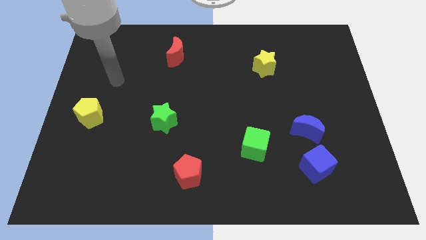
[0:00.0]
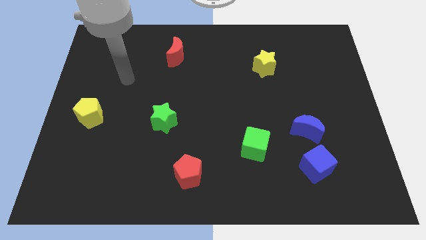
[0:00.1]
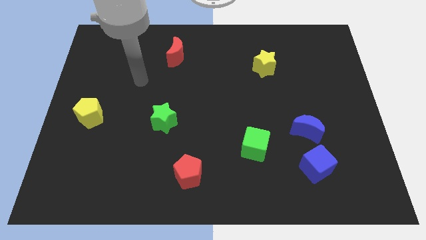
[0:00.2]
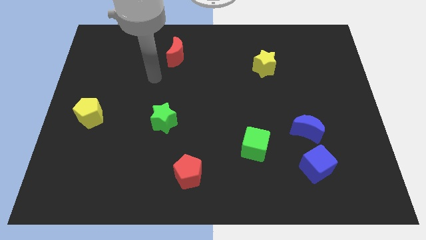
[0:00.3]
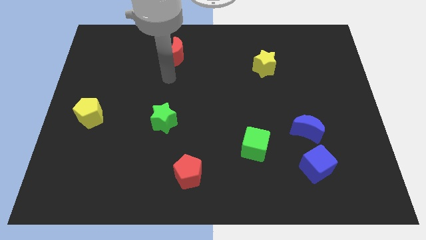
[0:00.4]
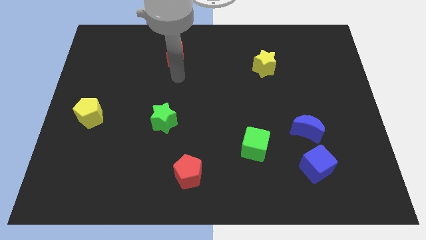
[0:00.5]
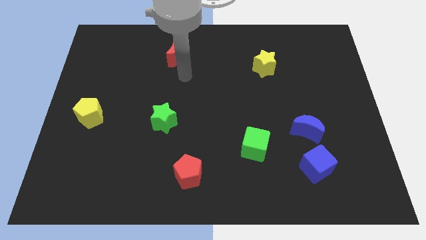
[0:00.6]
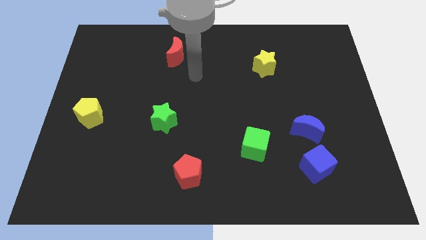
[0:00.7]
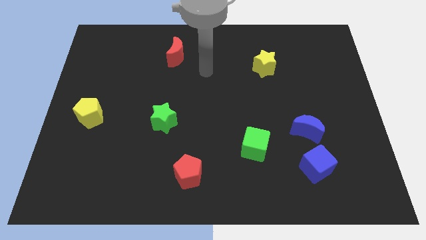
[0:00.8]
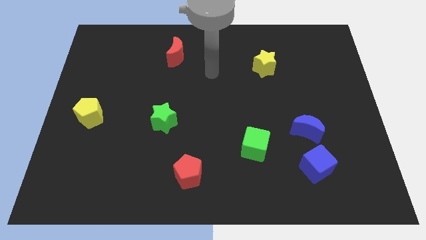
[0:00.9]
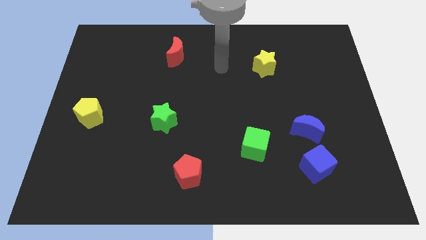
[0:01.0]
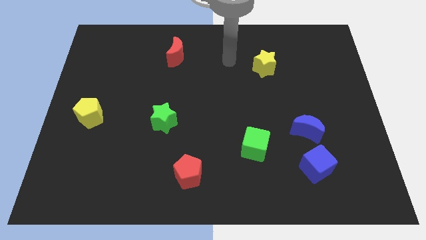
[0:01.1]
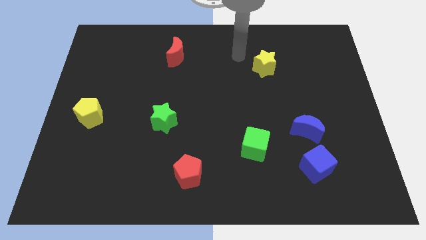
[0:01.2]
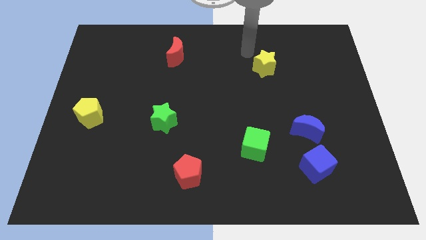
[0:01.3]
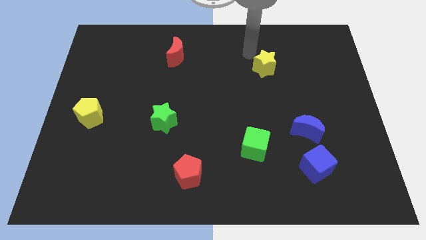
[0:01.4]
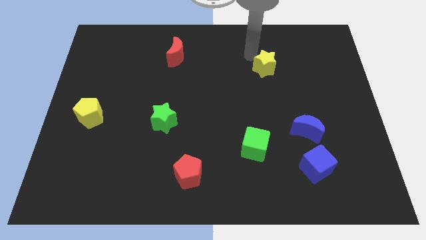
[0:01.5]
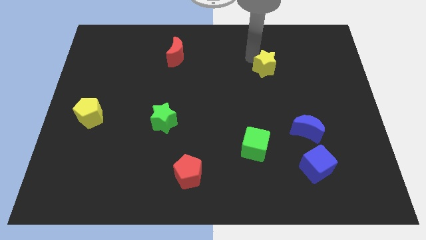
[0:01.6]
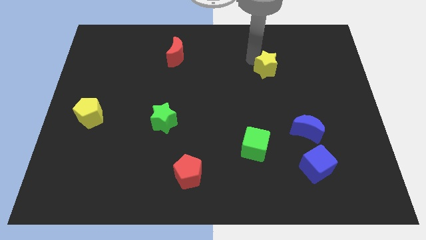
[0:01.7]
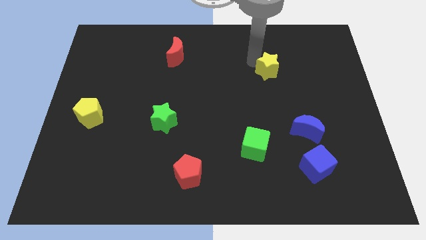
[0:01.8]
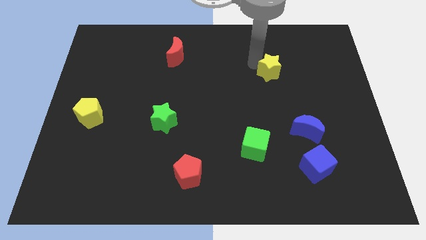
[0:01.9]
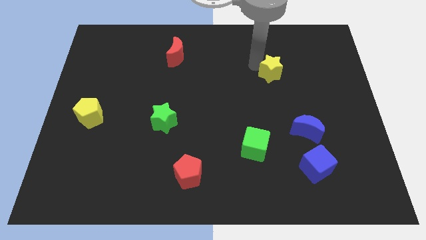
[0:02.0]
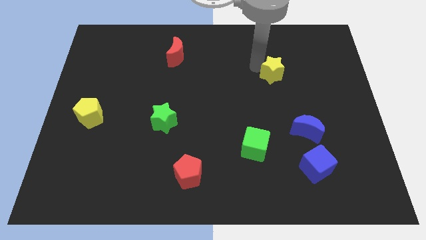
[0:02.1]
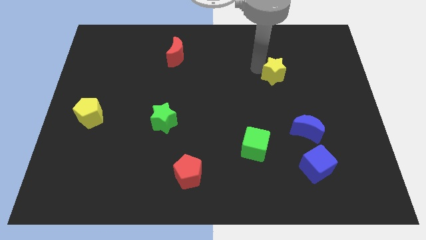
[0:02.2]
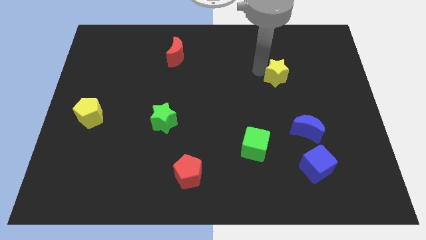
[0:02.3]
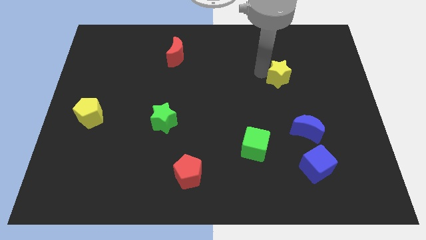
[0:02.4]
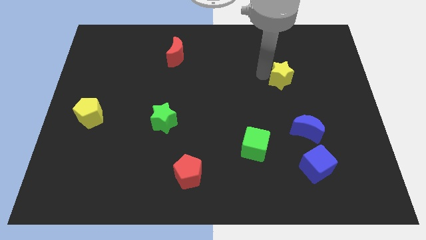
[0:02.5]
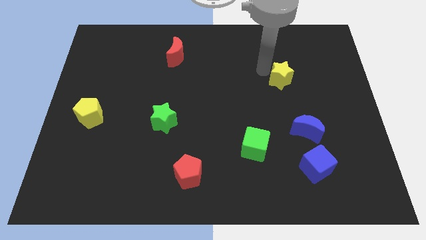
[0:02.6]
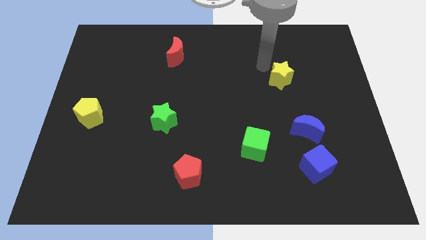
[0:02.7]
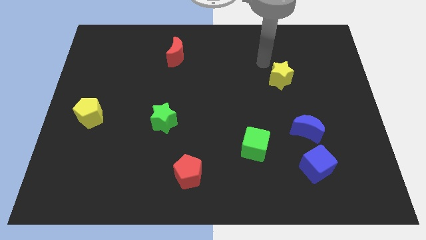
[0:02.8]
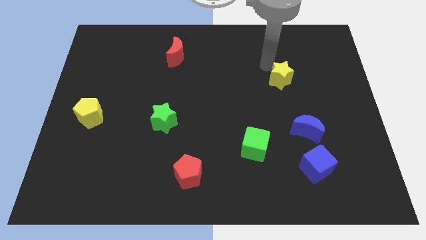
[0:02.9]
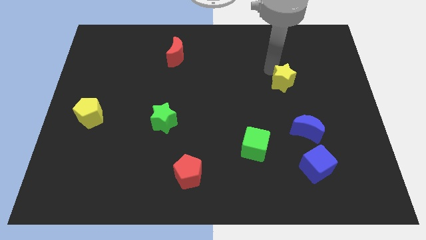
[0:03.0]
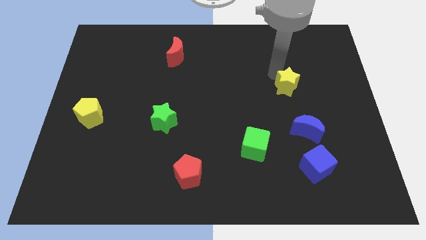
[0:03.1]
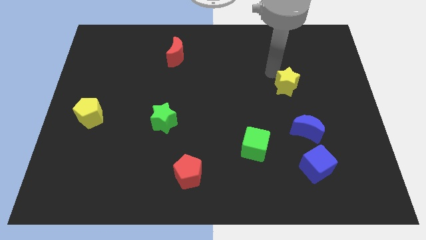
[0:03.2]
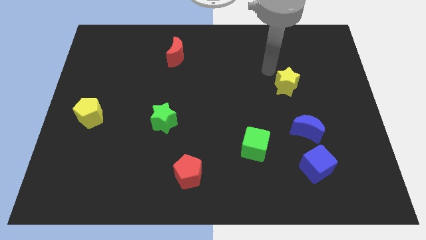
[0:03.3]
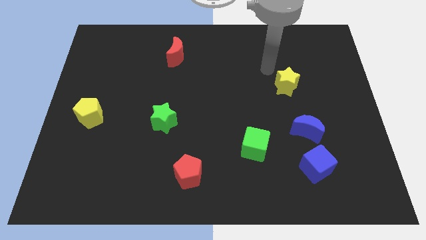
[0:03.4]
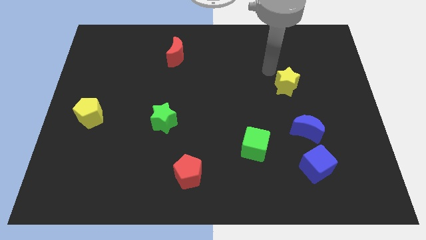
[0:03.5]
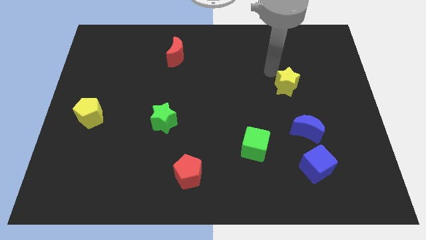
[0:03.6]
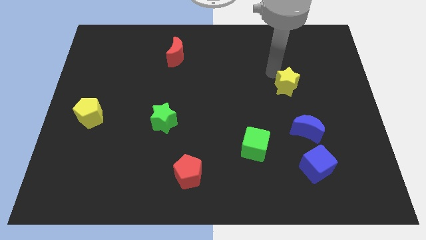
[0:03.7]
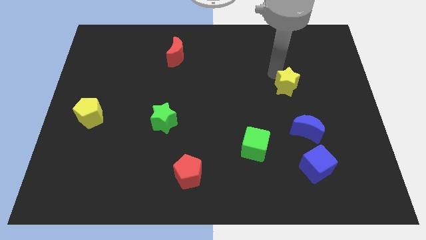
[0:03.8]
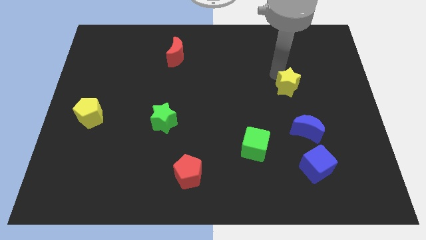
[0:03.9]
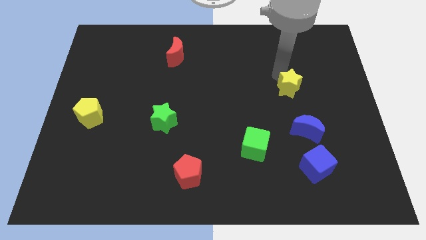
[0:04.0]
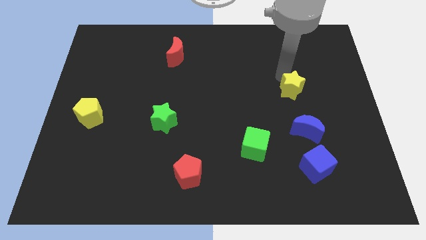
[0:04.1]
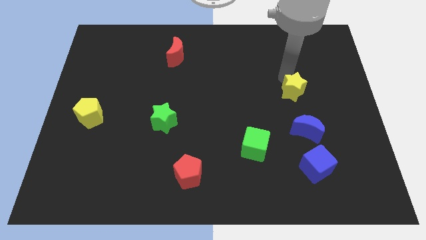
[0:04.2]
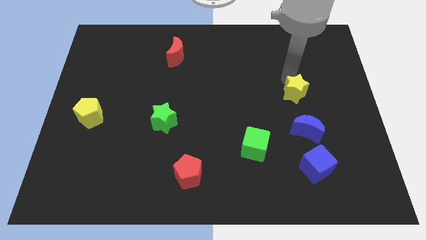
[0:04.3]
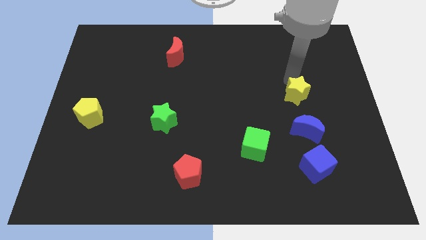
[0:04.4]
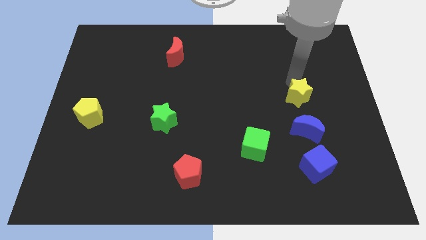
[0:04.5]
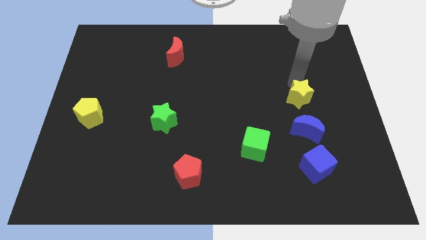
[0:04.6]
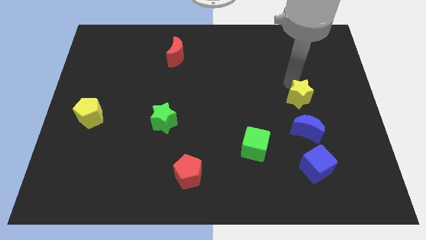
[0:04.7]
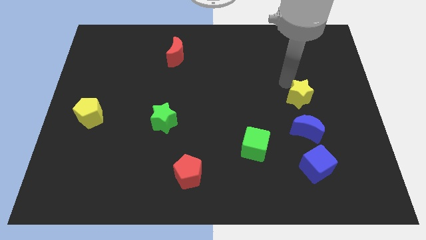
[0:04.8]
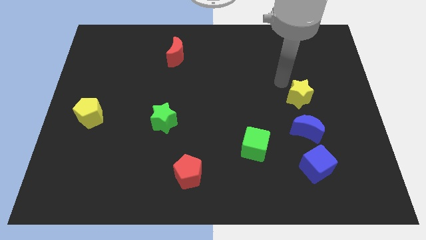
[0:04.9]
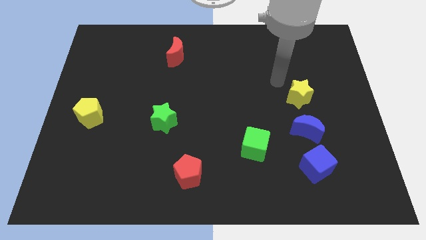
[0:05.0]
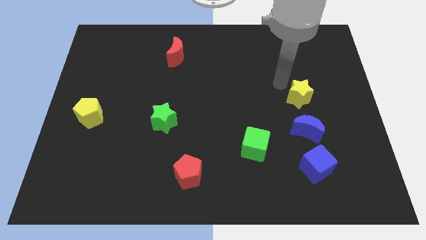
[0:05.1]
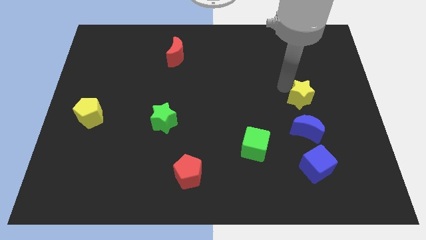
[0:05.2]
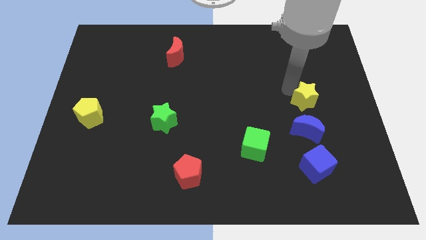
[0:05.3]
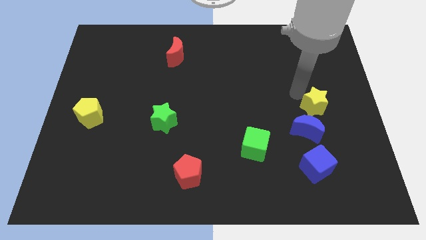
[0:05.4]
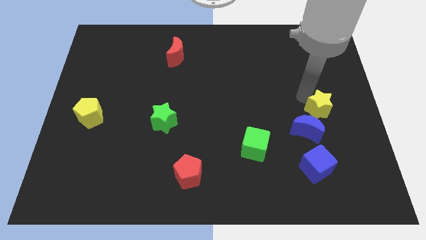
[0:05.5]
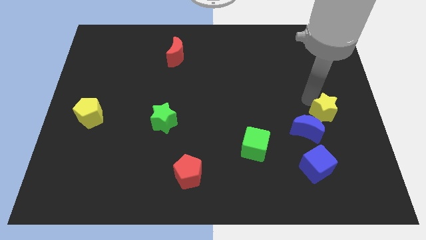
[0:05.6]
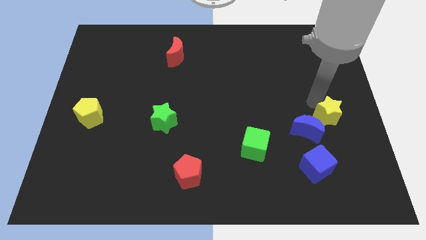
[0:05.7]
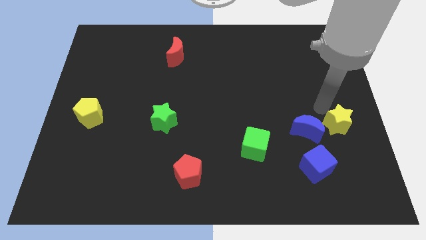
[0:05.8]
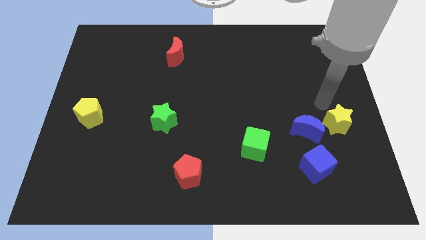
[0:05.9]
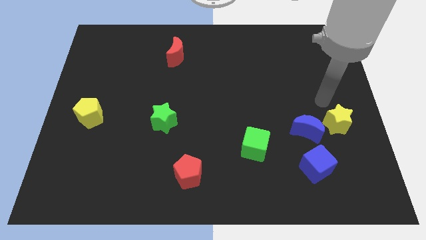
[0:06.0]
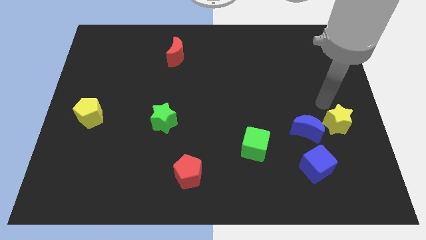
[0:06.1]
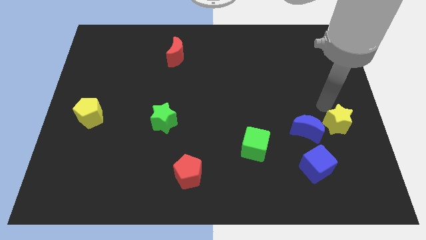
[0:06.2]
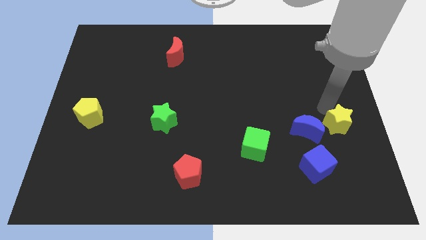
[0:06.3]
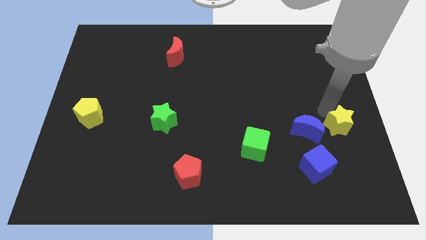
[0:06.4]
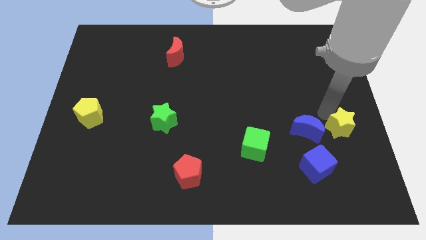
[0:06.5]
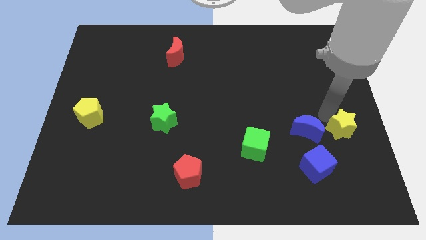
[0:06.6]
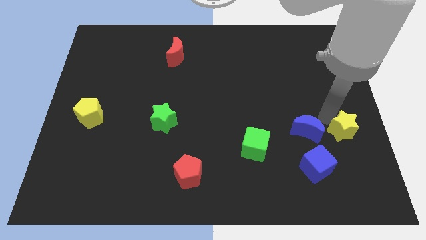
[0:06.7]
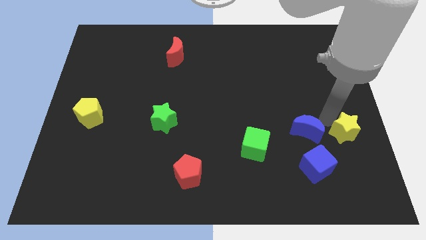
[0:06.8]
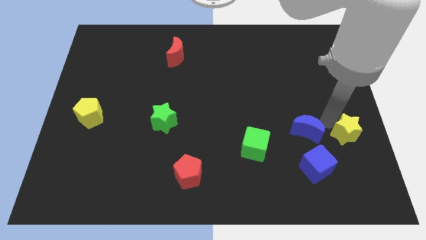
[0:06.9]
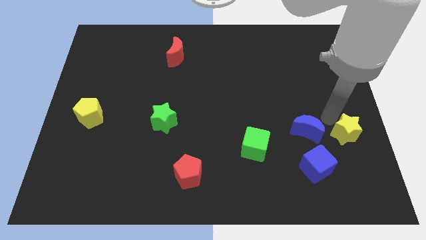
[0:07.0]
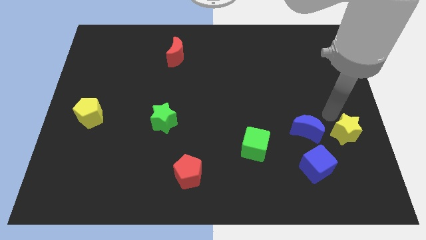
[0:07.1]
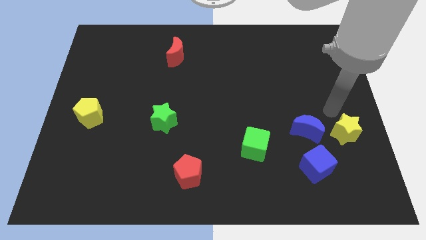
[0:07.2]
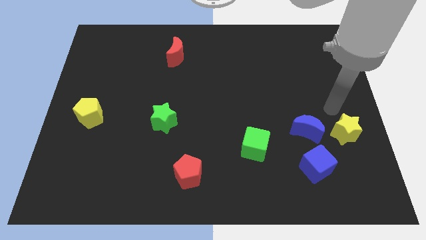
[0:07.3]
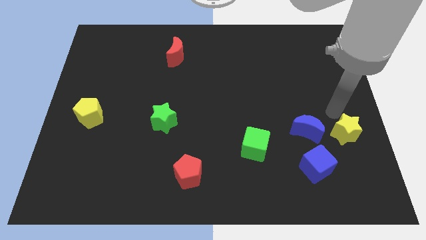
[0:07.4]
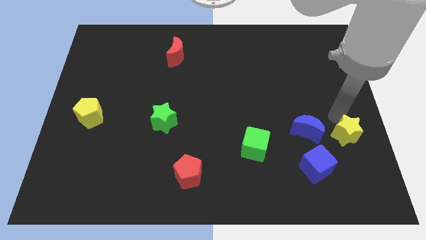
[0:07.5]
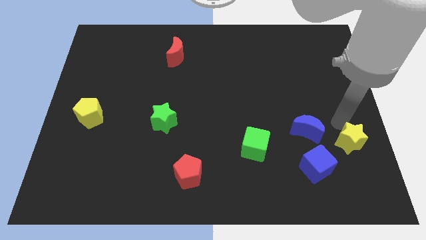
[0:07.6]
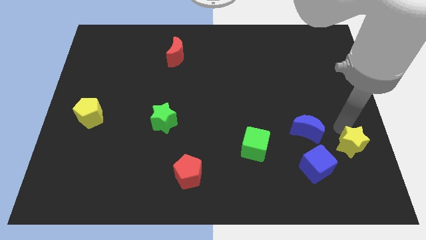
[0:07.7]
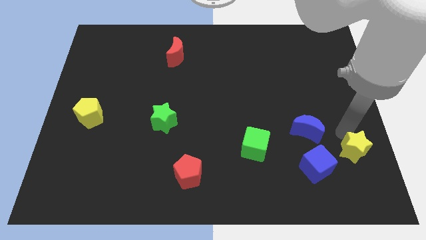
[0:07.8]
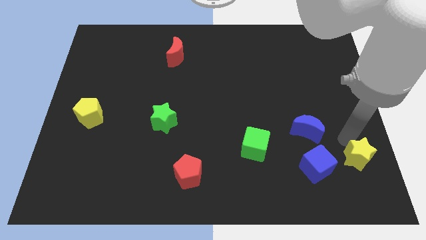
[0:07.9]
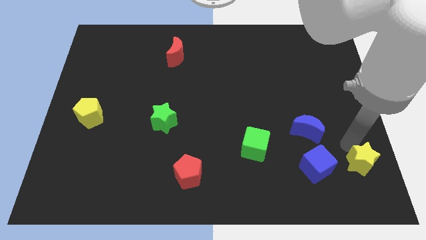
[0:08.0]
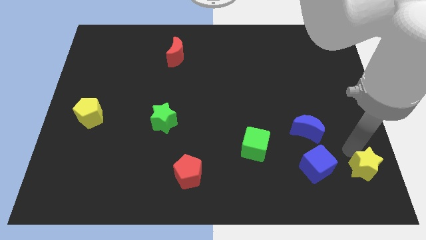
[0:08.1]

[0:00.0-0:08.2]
put the yellow star to the bottom right of the board
